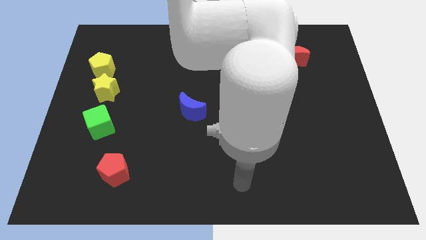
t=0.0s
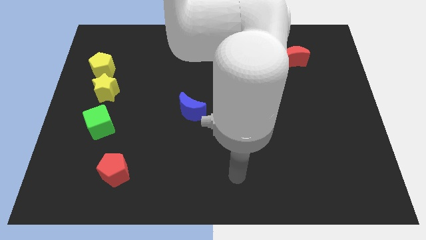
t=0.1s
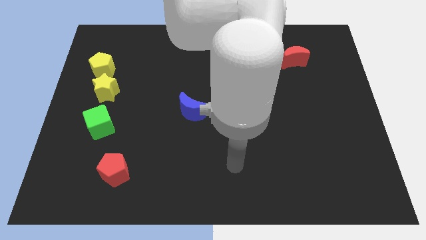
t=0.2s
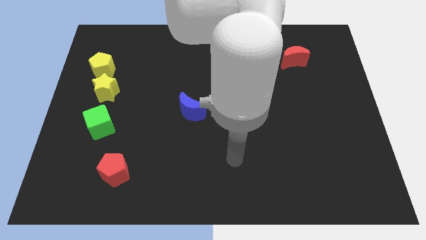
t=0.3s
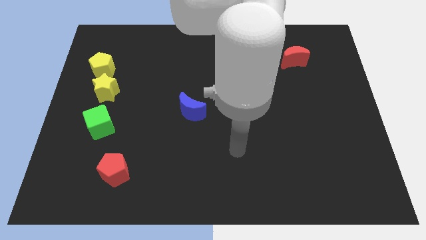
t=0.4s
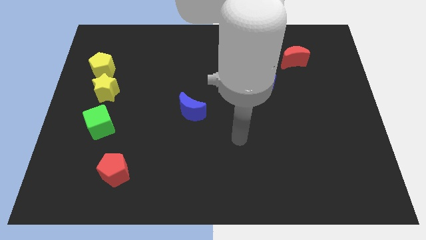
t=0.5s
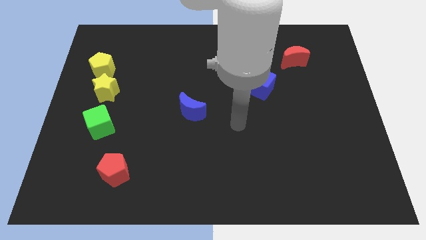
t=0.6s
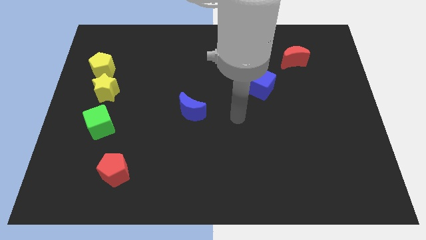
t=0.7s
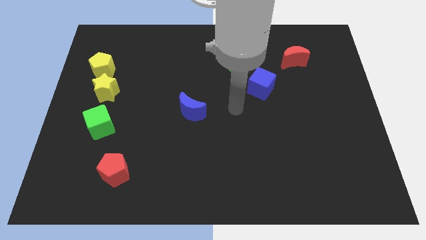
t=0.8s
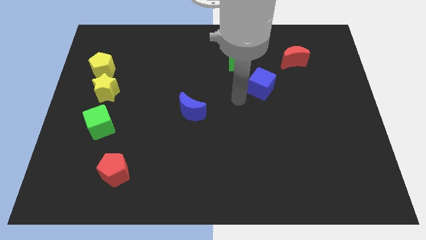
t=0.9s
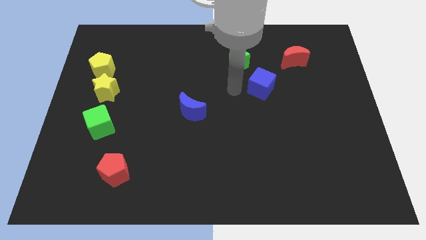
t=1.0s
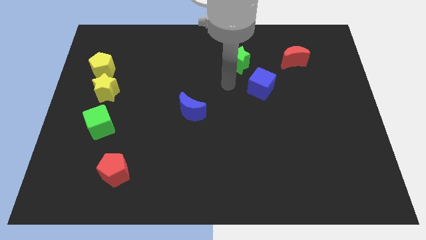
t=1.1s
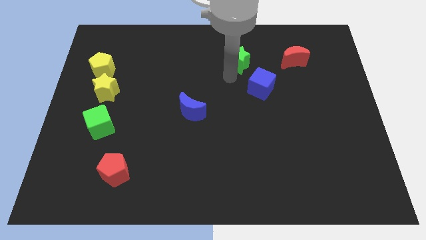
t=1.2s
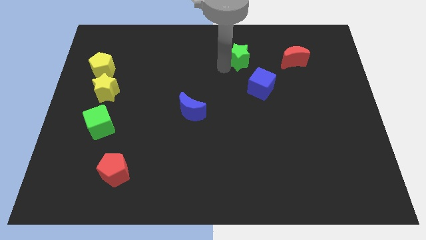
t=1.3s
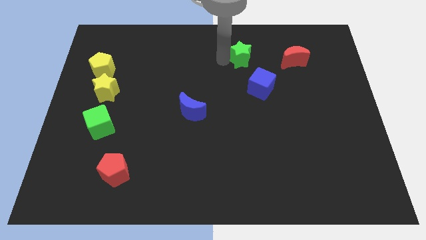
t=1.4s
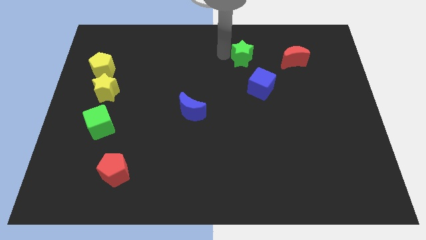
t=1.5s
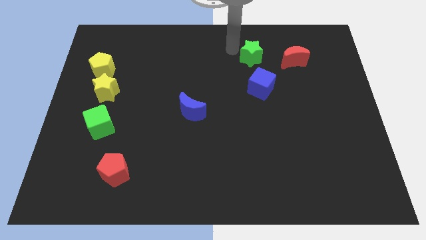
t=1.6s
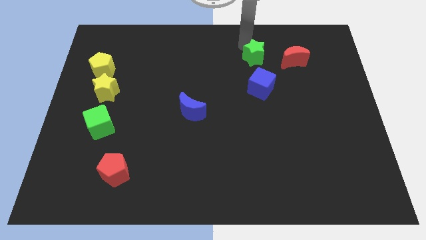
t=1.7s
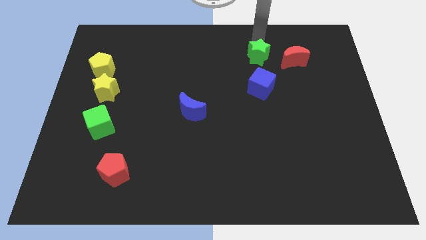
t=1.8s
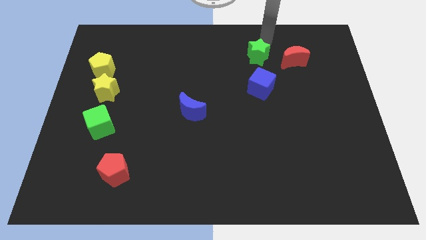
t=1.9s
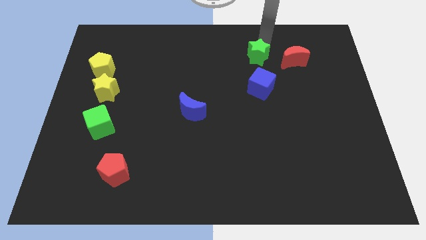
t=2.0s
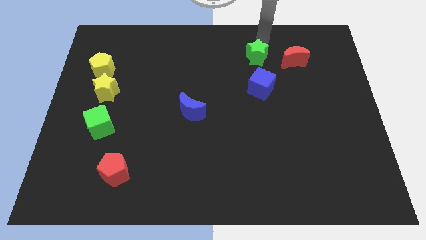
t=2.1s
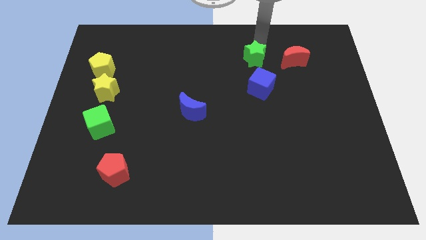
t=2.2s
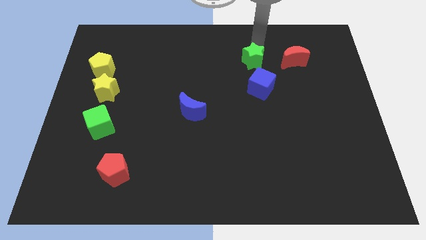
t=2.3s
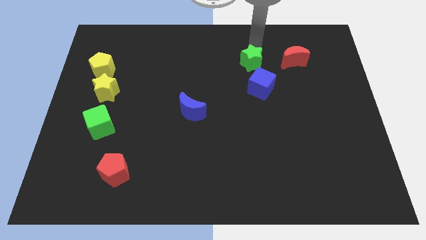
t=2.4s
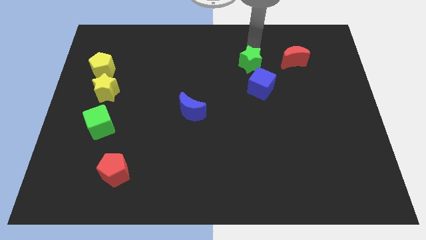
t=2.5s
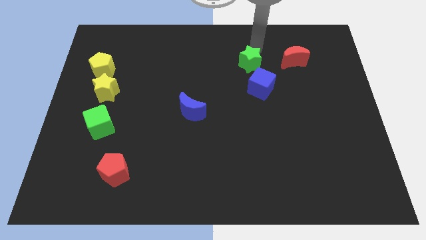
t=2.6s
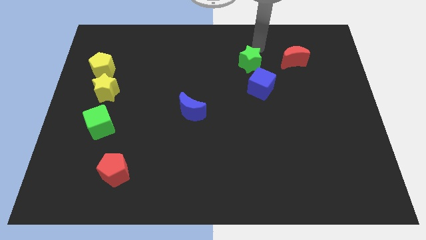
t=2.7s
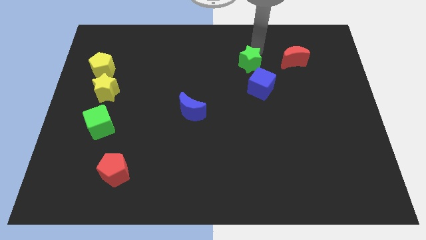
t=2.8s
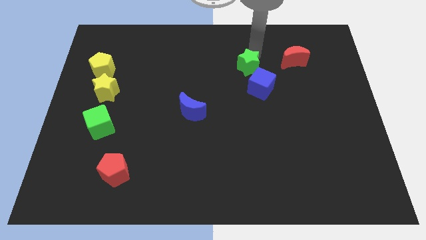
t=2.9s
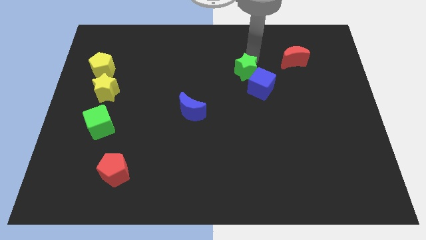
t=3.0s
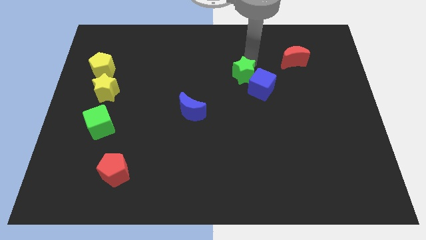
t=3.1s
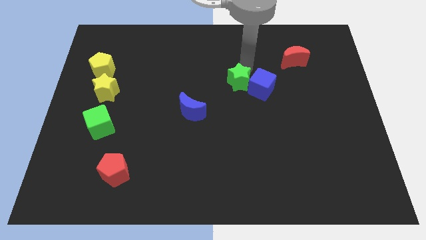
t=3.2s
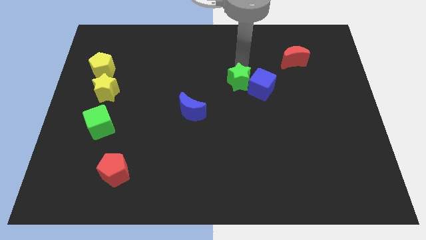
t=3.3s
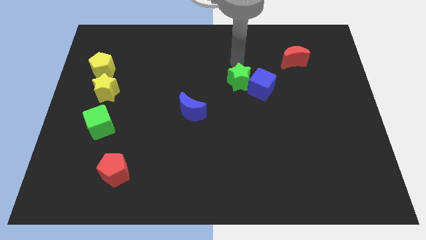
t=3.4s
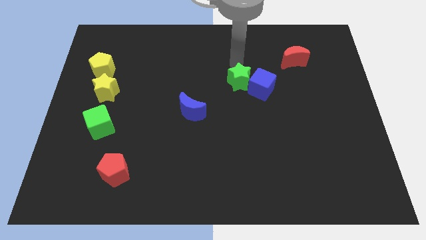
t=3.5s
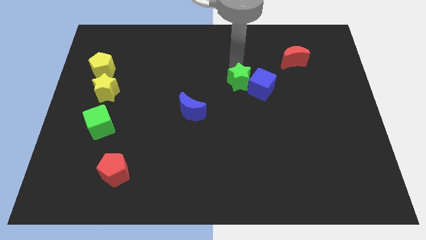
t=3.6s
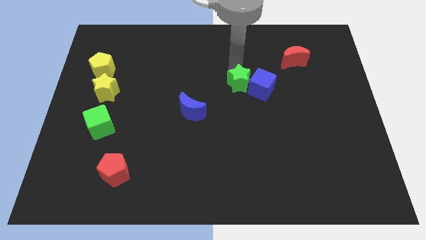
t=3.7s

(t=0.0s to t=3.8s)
push the green star down a bit

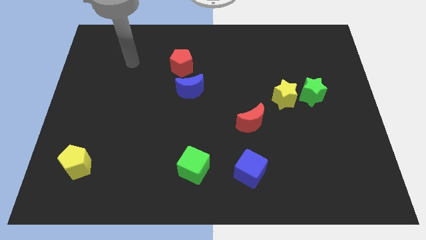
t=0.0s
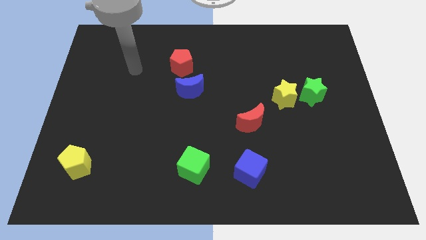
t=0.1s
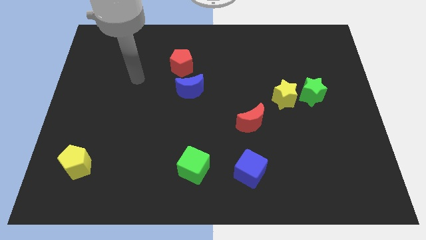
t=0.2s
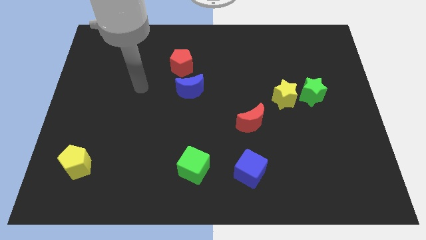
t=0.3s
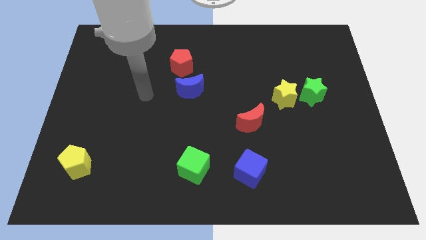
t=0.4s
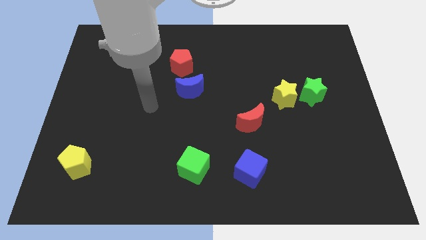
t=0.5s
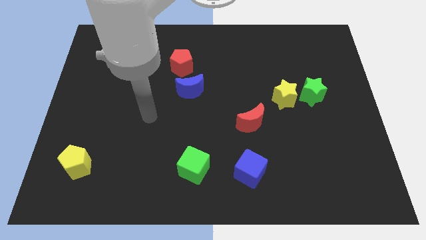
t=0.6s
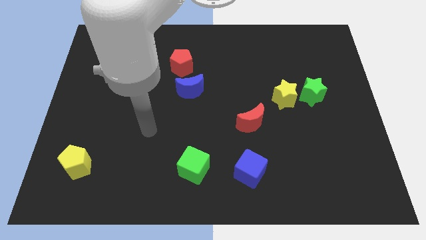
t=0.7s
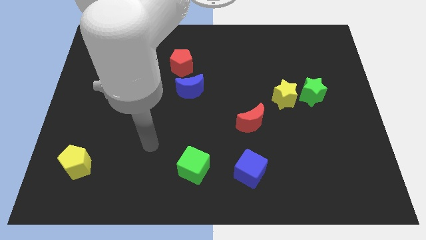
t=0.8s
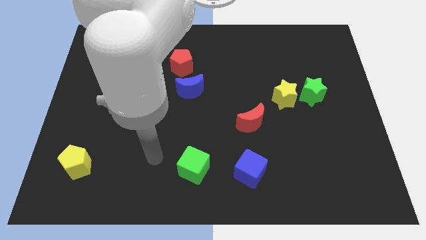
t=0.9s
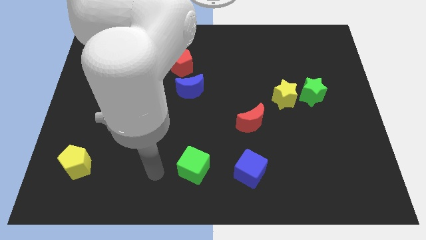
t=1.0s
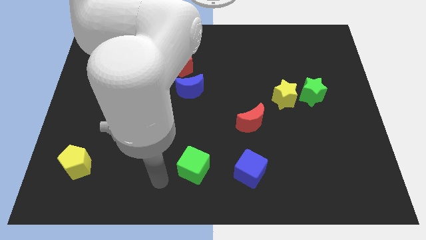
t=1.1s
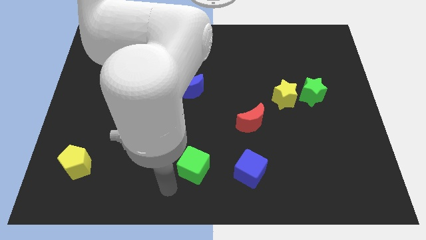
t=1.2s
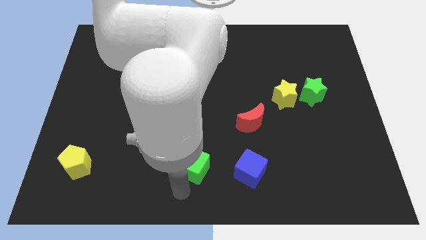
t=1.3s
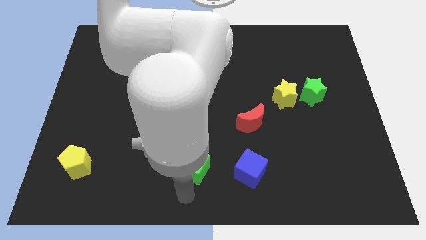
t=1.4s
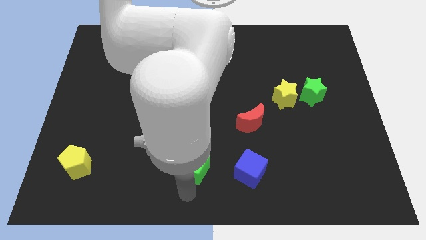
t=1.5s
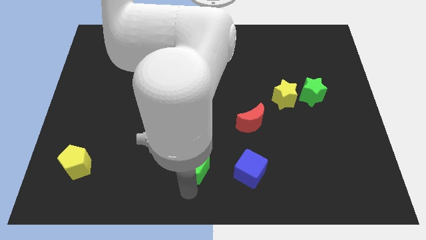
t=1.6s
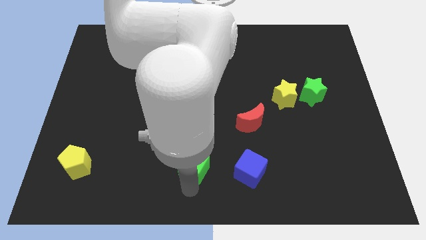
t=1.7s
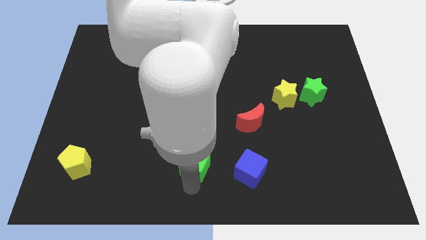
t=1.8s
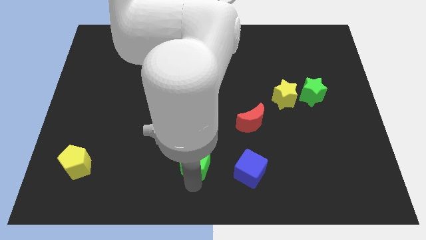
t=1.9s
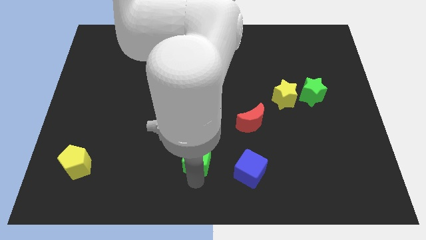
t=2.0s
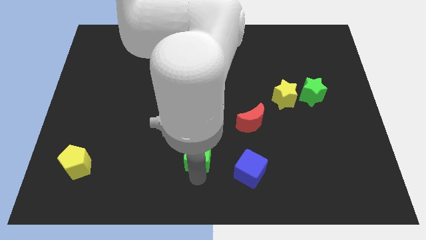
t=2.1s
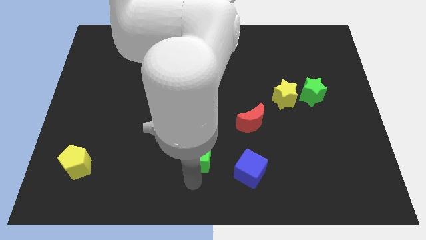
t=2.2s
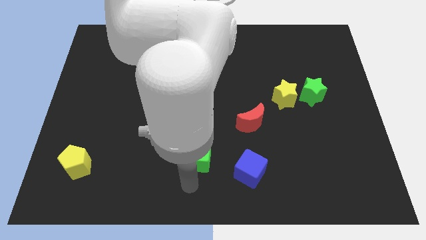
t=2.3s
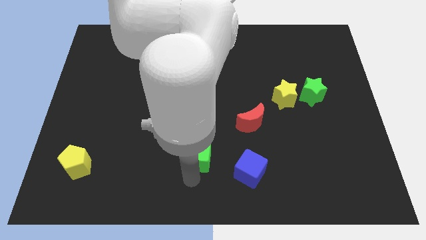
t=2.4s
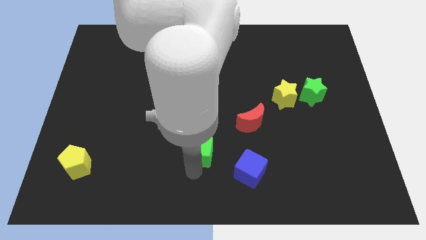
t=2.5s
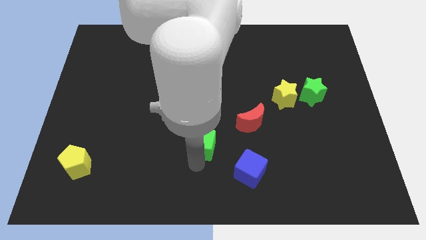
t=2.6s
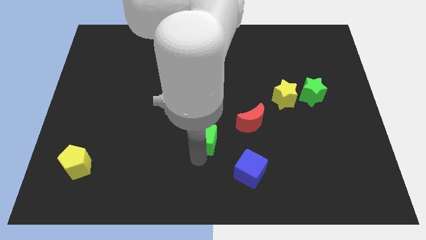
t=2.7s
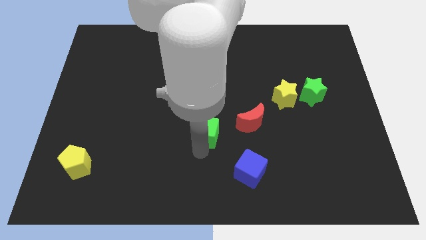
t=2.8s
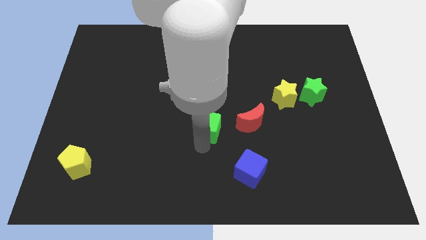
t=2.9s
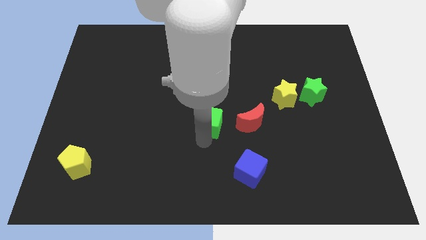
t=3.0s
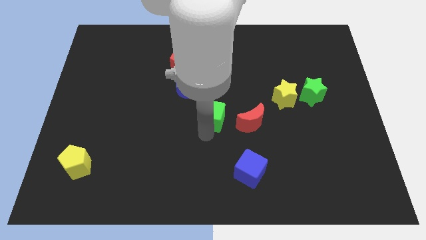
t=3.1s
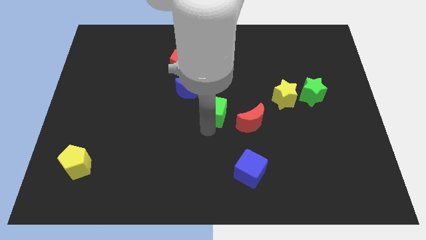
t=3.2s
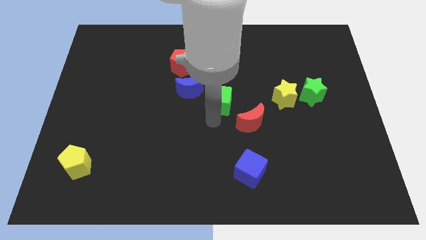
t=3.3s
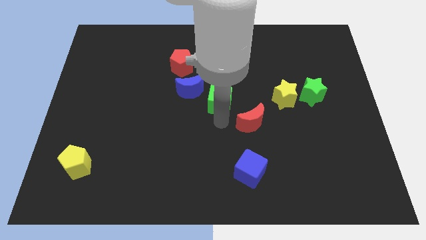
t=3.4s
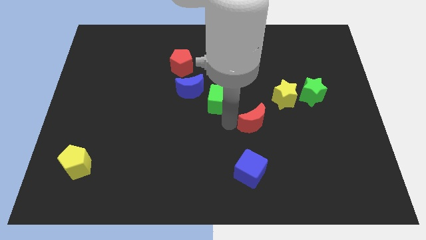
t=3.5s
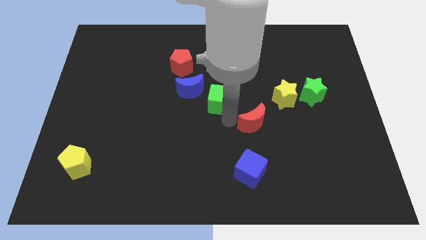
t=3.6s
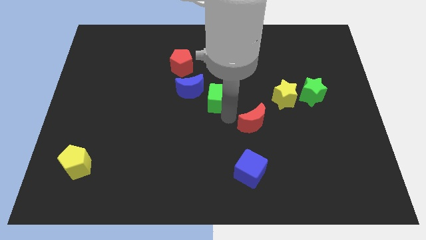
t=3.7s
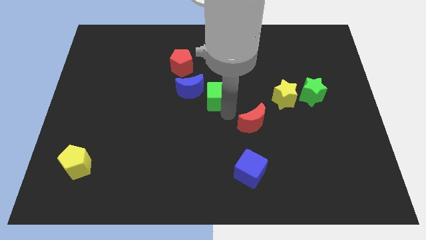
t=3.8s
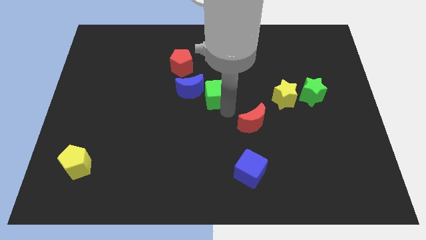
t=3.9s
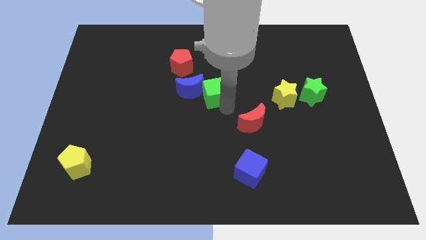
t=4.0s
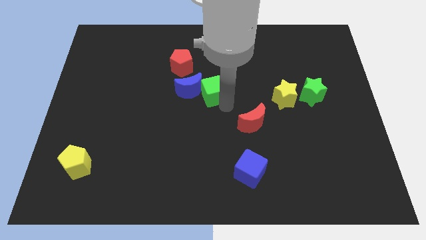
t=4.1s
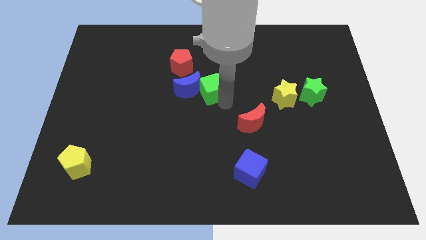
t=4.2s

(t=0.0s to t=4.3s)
push the green cube up
